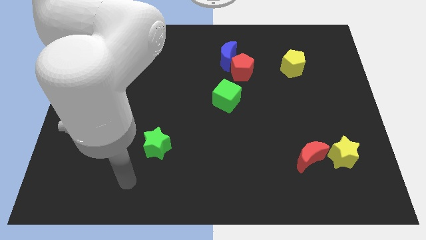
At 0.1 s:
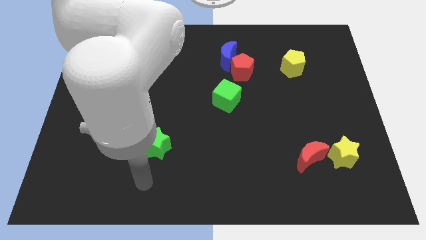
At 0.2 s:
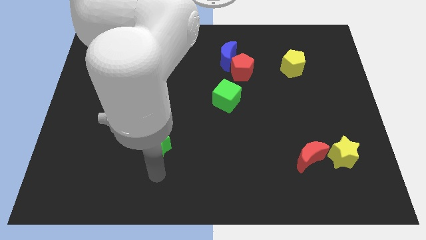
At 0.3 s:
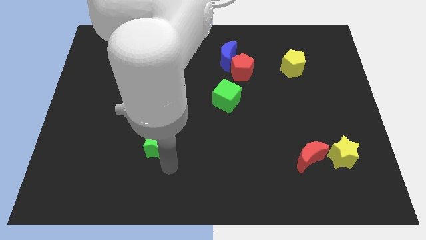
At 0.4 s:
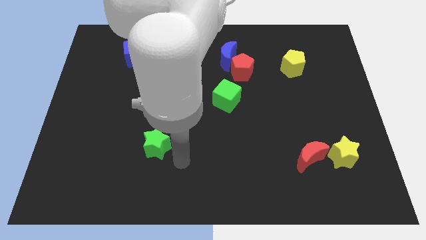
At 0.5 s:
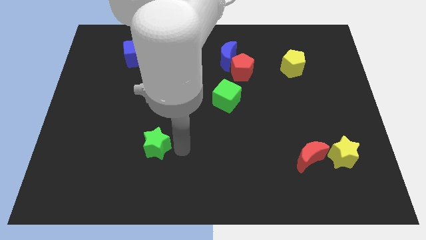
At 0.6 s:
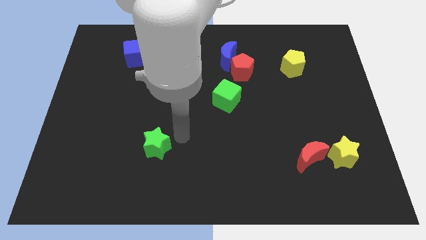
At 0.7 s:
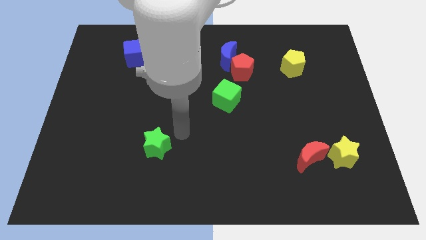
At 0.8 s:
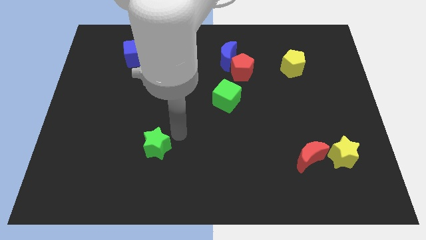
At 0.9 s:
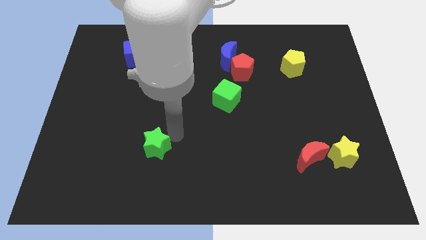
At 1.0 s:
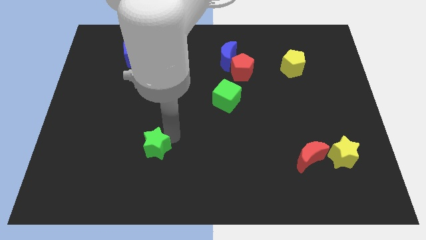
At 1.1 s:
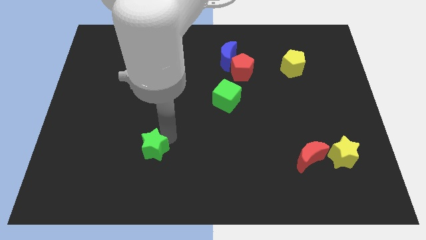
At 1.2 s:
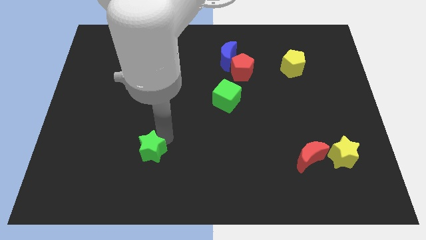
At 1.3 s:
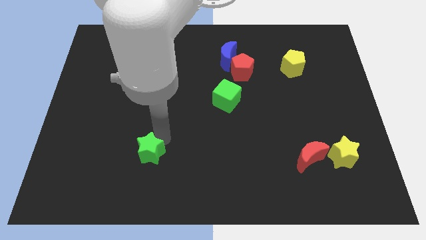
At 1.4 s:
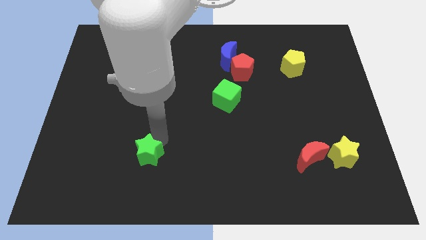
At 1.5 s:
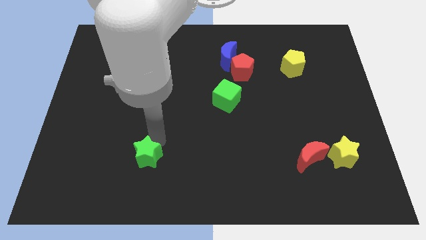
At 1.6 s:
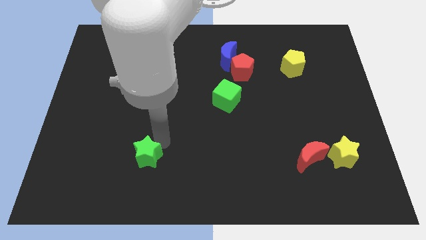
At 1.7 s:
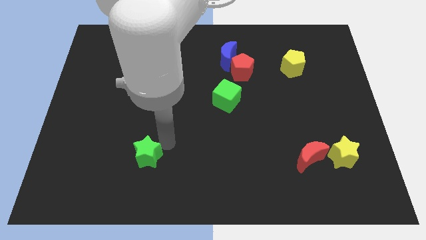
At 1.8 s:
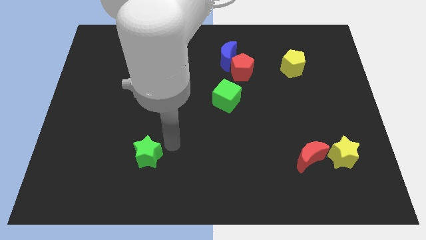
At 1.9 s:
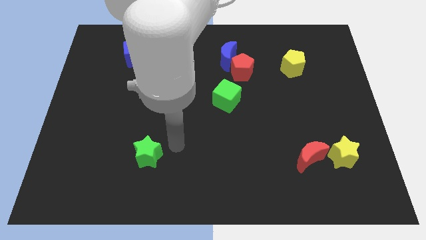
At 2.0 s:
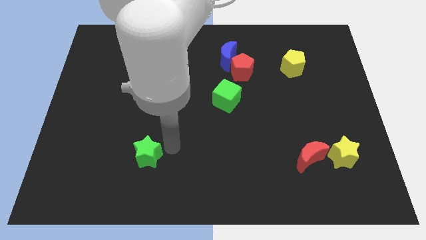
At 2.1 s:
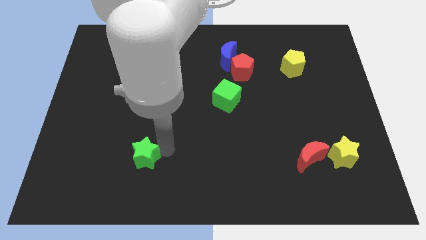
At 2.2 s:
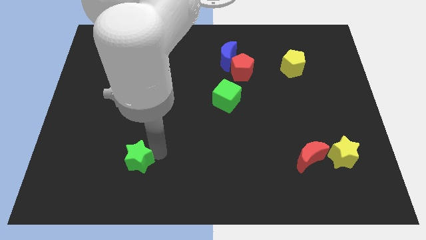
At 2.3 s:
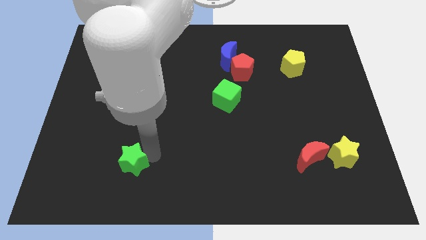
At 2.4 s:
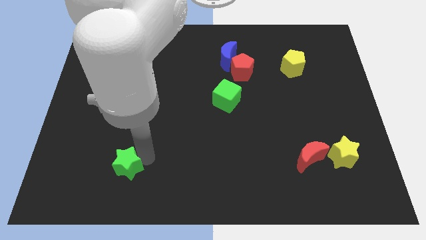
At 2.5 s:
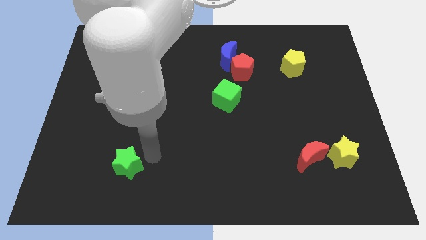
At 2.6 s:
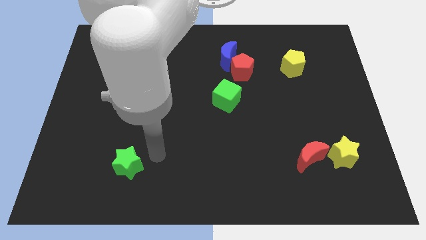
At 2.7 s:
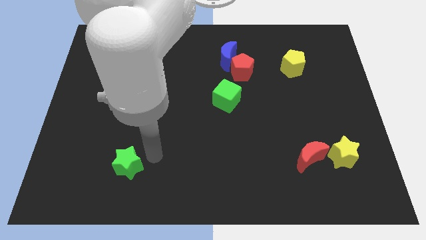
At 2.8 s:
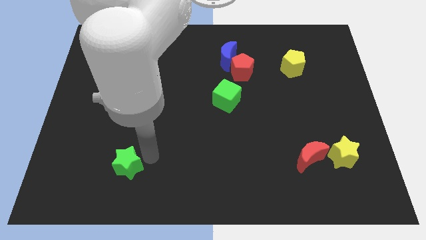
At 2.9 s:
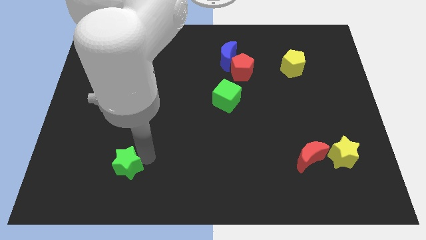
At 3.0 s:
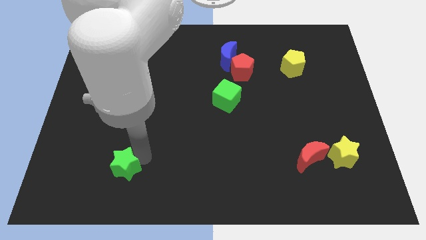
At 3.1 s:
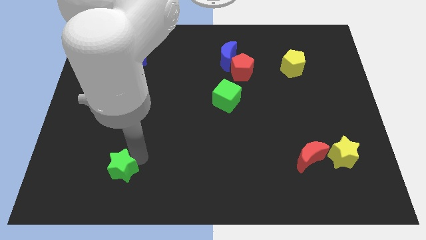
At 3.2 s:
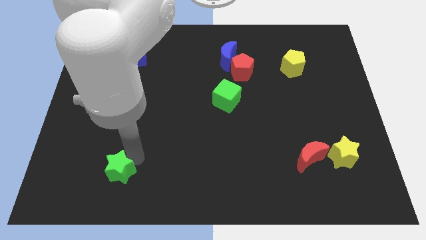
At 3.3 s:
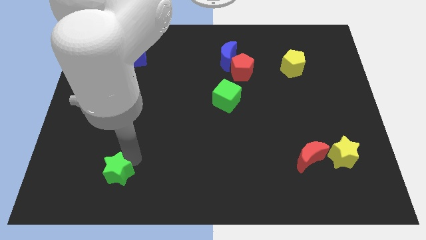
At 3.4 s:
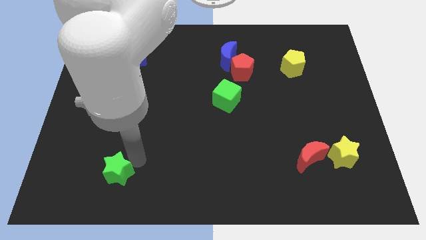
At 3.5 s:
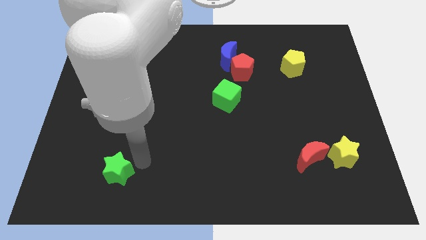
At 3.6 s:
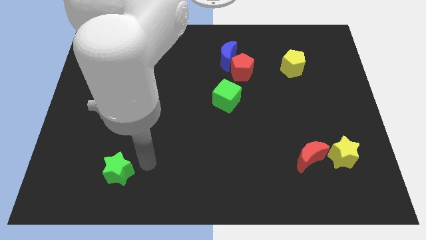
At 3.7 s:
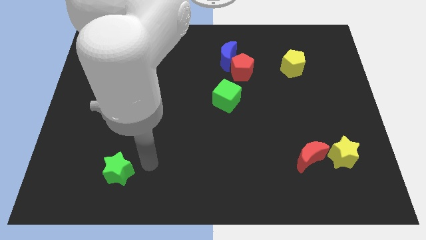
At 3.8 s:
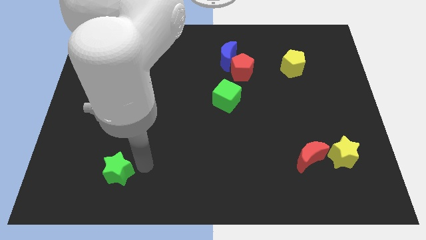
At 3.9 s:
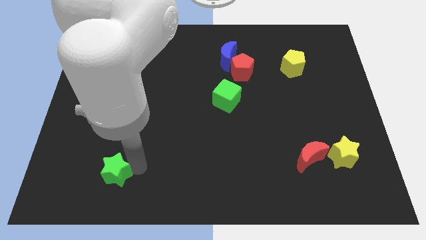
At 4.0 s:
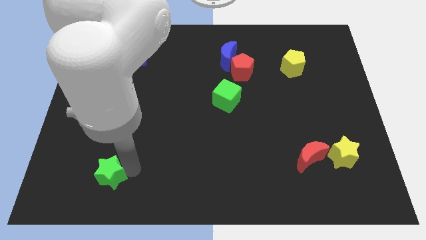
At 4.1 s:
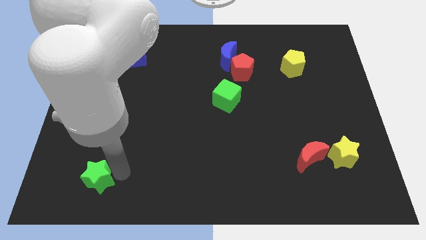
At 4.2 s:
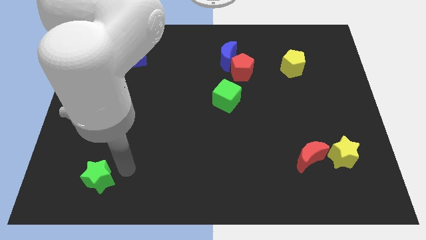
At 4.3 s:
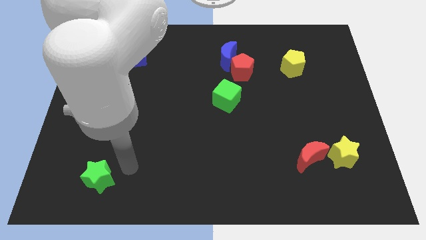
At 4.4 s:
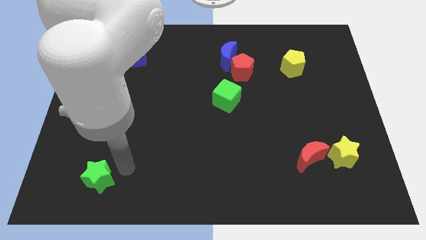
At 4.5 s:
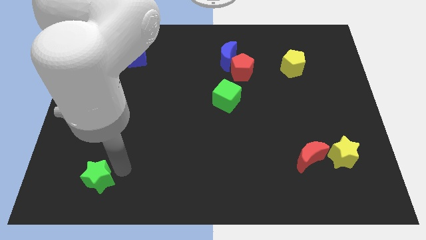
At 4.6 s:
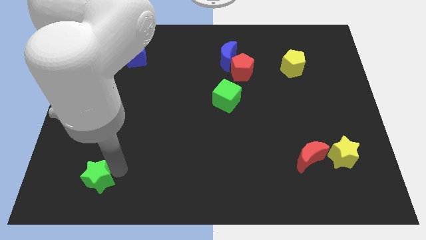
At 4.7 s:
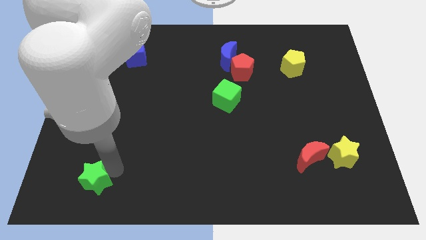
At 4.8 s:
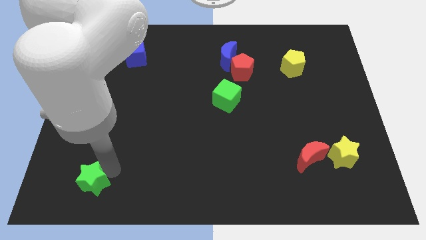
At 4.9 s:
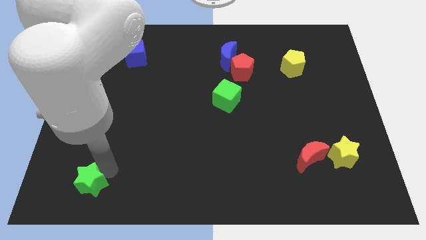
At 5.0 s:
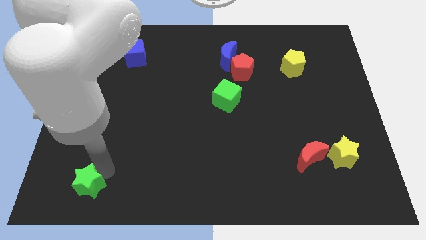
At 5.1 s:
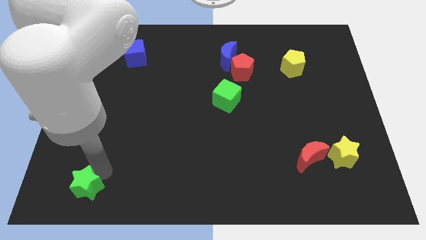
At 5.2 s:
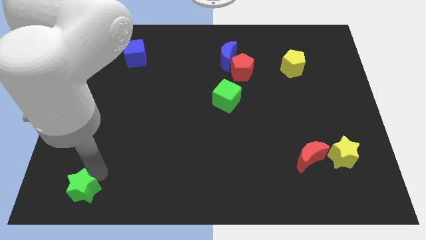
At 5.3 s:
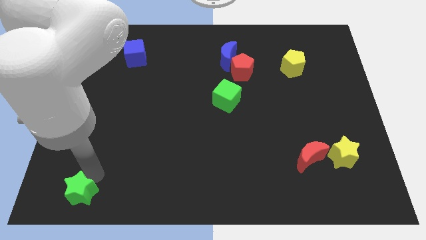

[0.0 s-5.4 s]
slide the green star to the bottom left corner
